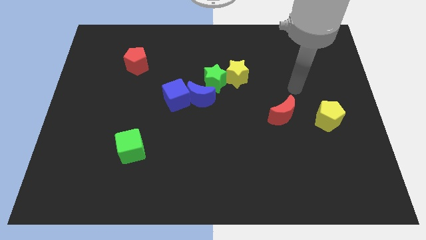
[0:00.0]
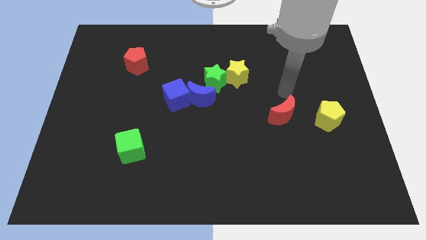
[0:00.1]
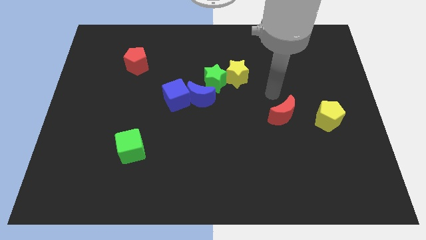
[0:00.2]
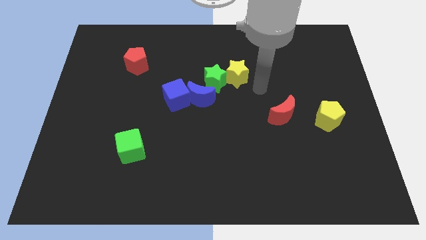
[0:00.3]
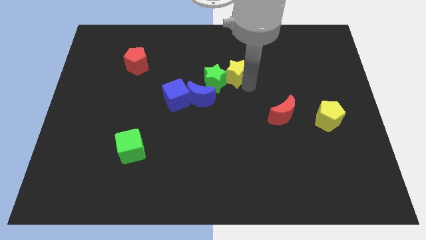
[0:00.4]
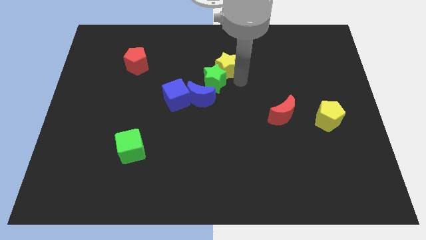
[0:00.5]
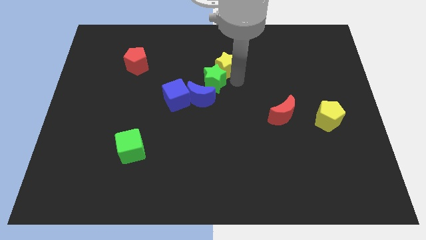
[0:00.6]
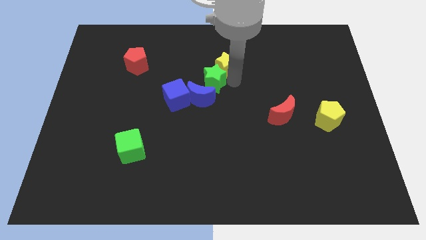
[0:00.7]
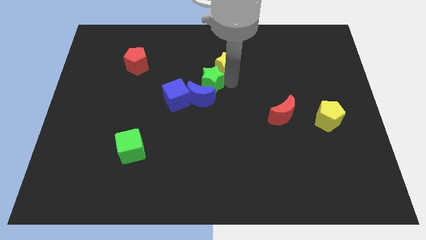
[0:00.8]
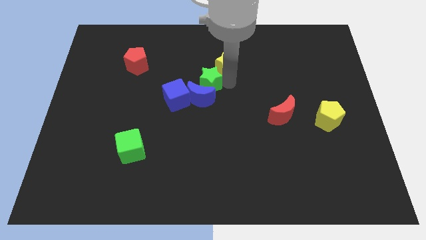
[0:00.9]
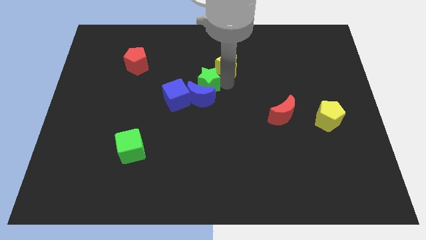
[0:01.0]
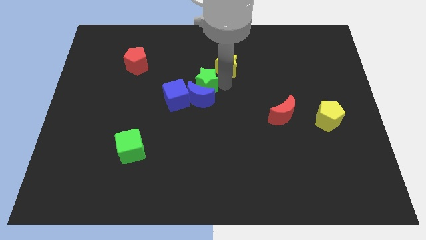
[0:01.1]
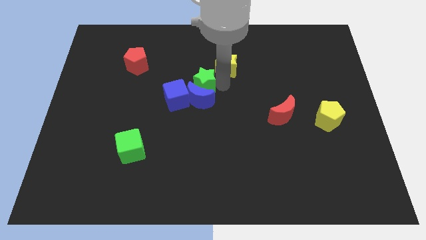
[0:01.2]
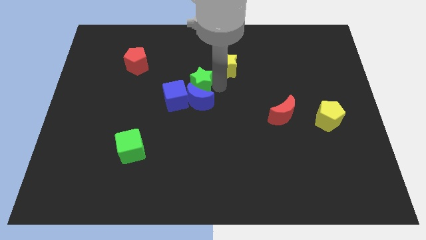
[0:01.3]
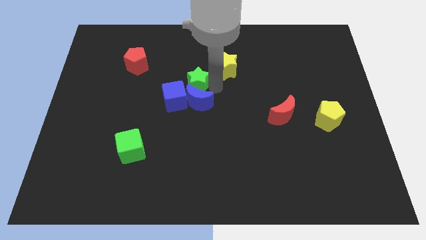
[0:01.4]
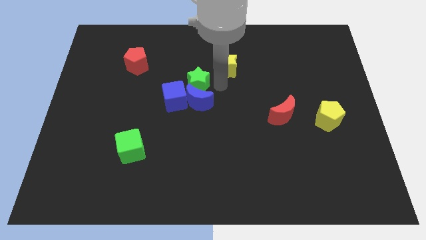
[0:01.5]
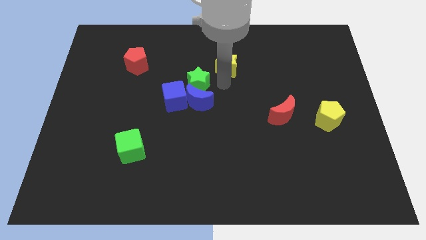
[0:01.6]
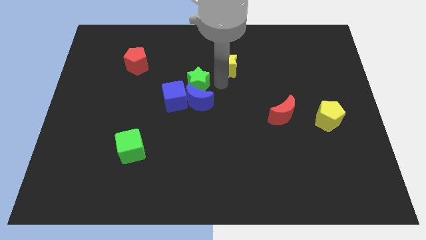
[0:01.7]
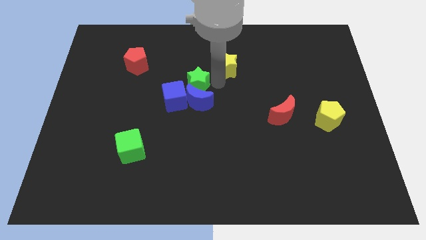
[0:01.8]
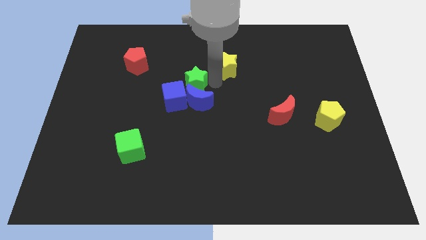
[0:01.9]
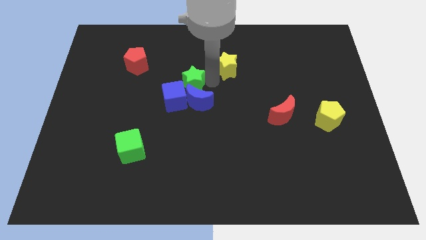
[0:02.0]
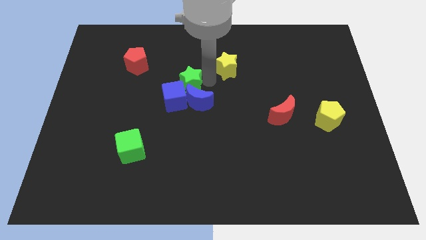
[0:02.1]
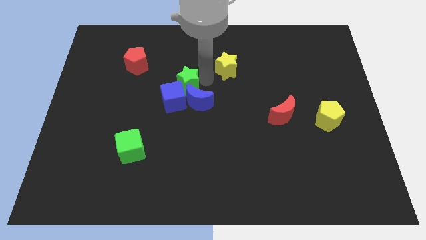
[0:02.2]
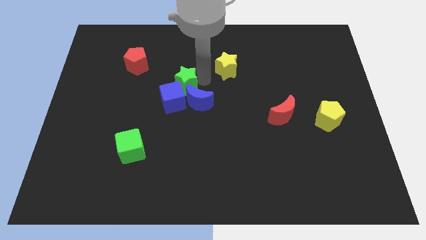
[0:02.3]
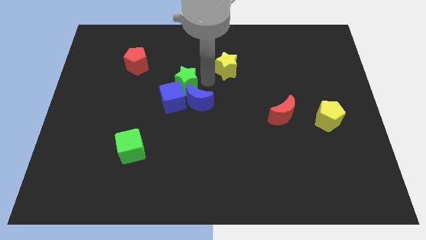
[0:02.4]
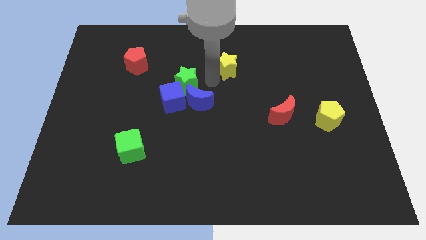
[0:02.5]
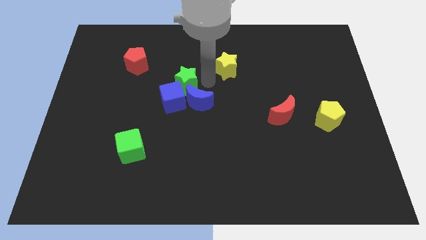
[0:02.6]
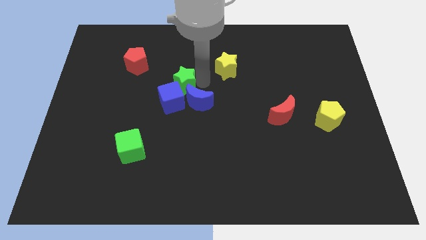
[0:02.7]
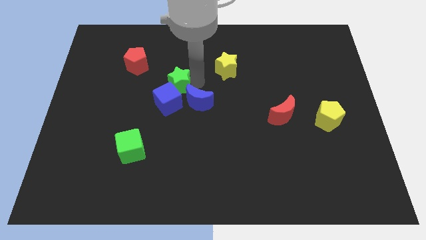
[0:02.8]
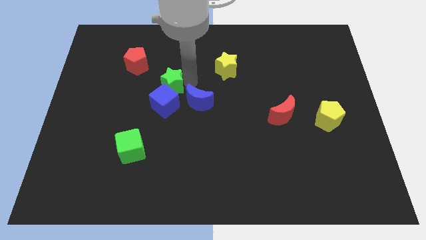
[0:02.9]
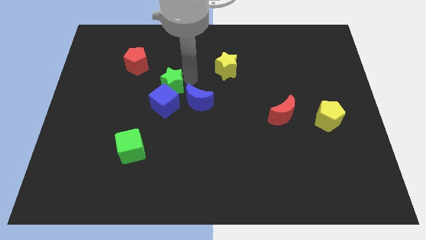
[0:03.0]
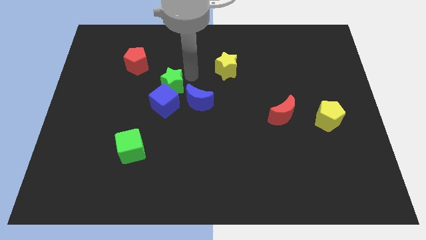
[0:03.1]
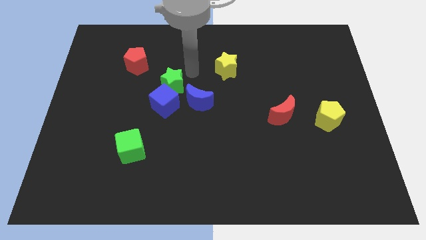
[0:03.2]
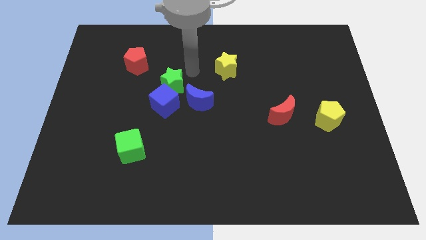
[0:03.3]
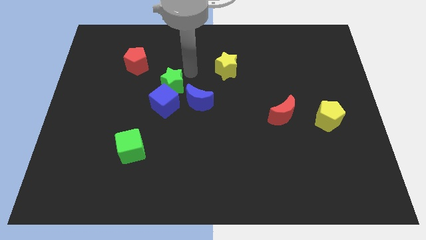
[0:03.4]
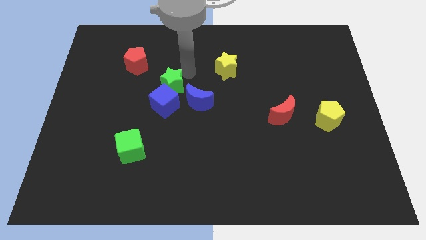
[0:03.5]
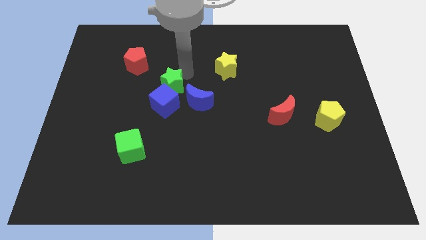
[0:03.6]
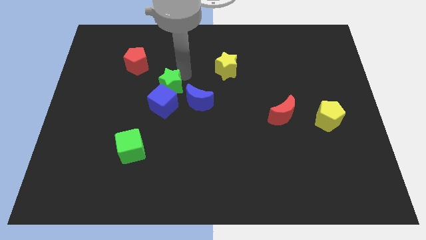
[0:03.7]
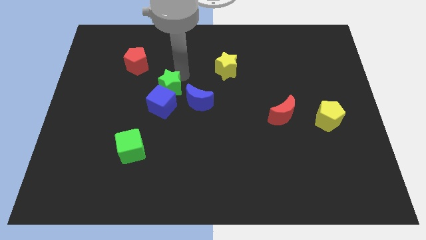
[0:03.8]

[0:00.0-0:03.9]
slide the green star diagonally downwards and left a bit

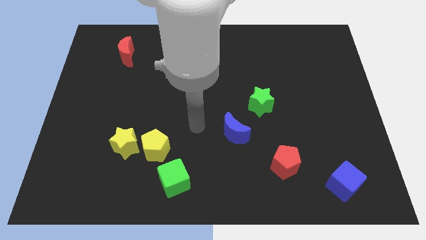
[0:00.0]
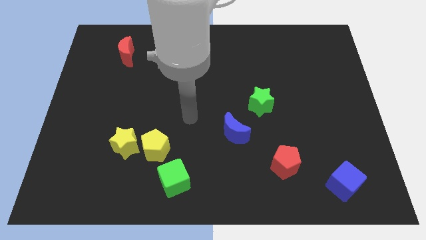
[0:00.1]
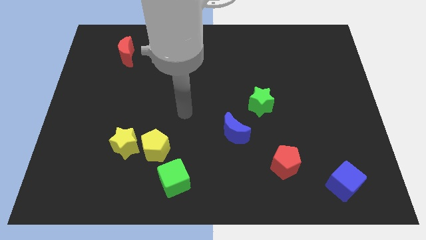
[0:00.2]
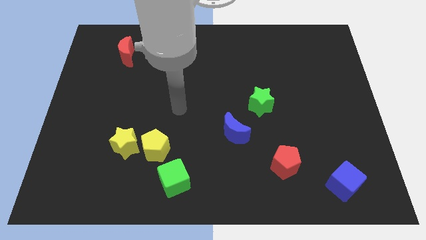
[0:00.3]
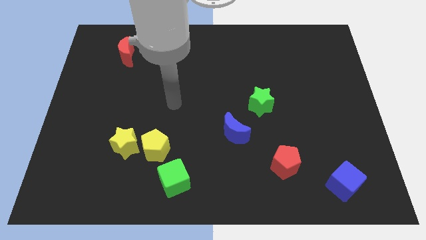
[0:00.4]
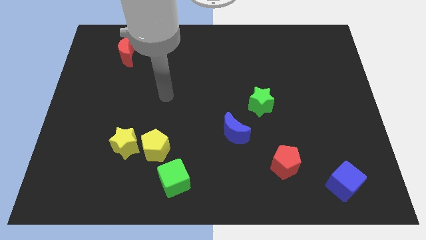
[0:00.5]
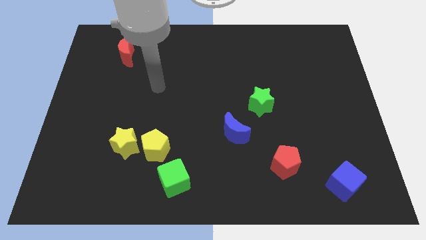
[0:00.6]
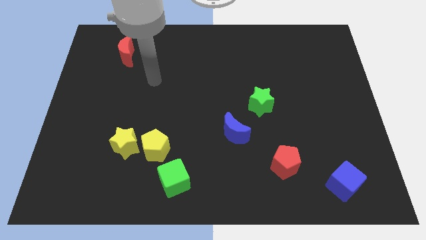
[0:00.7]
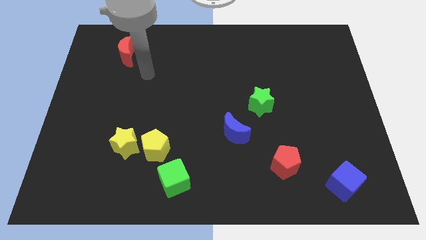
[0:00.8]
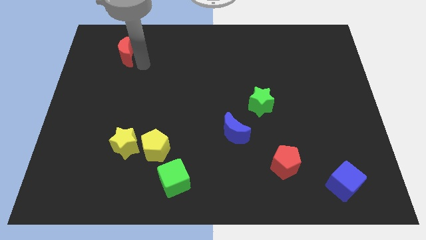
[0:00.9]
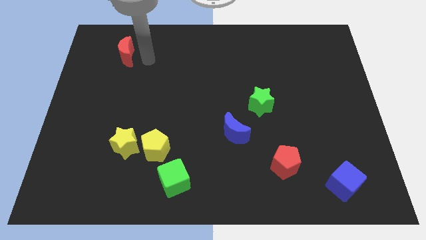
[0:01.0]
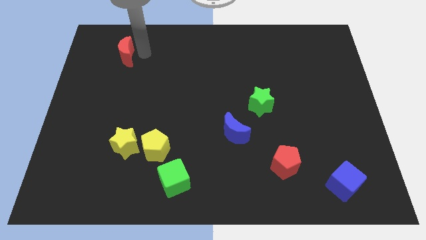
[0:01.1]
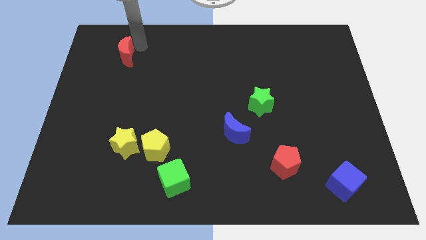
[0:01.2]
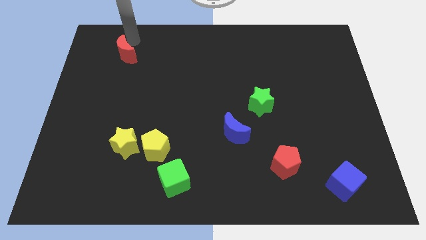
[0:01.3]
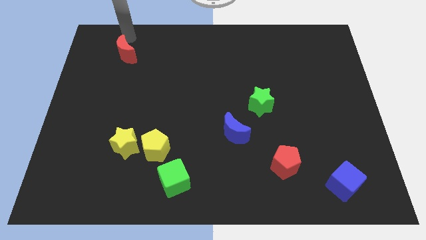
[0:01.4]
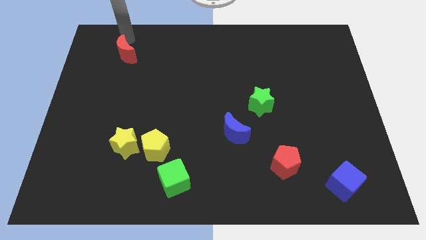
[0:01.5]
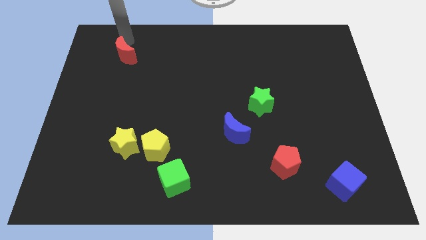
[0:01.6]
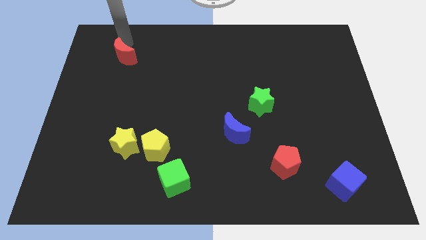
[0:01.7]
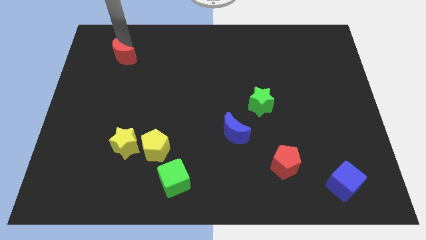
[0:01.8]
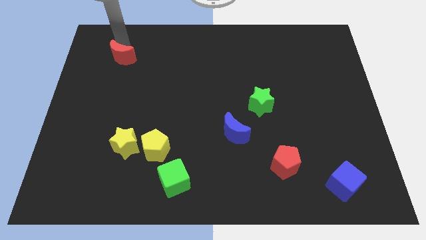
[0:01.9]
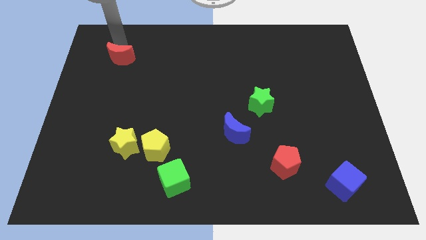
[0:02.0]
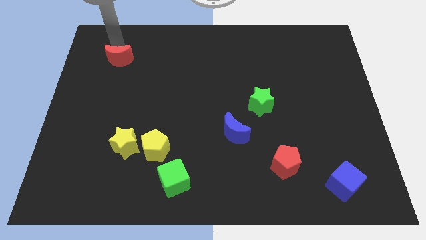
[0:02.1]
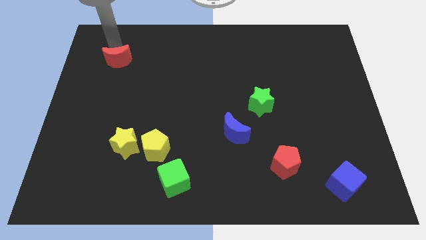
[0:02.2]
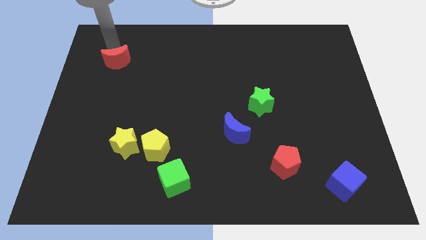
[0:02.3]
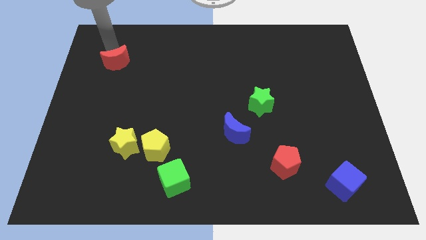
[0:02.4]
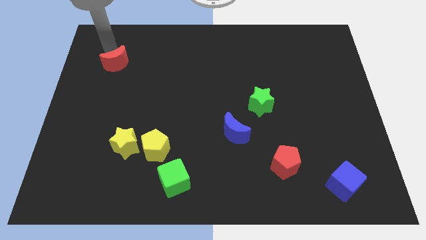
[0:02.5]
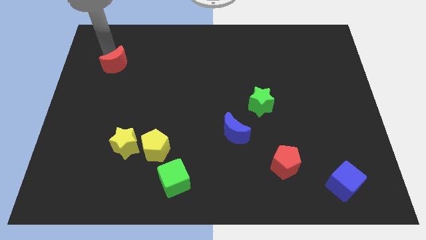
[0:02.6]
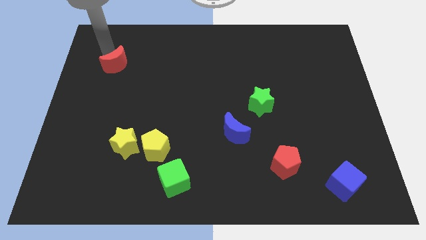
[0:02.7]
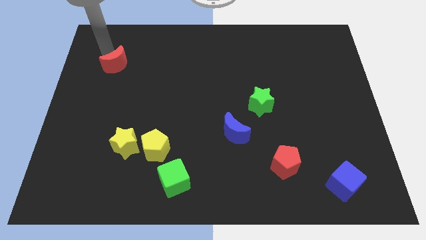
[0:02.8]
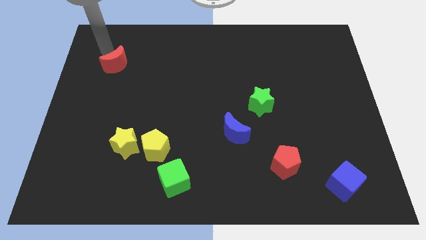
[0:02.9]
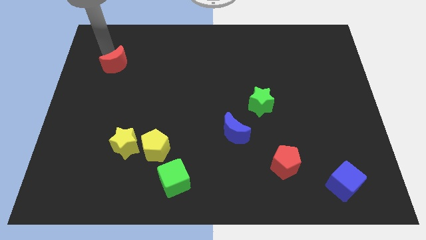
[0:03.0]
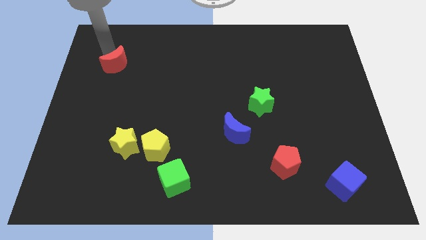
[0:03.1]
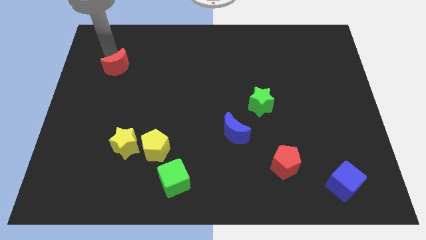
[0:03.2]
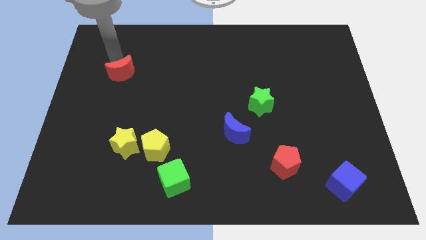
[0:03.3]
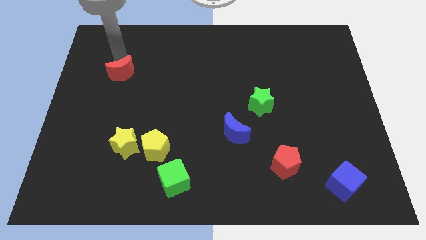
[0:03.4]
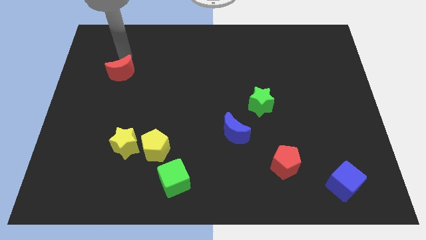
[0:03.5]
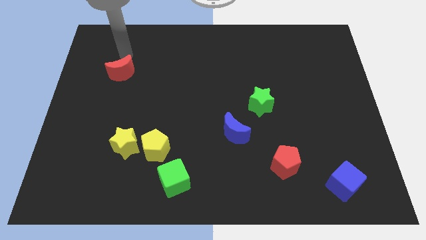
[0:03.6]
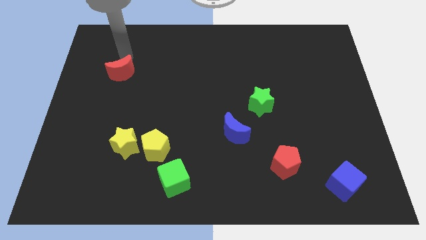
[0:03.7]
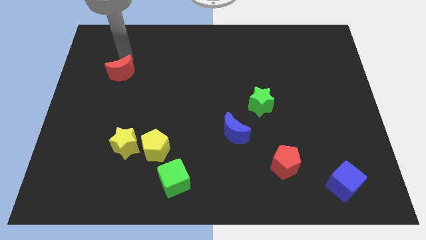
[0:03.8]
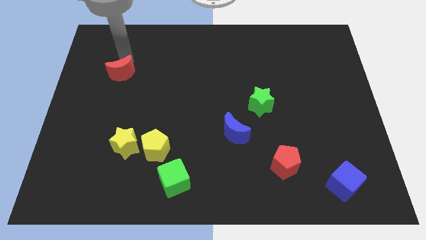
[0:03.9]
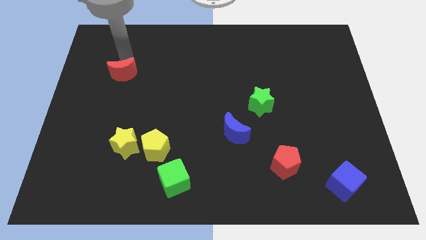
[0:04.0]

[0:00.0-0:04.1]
move the red moon a little bit down
